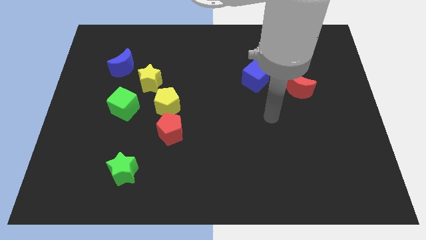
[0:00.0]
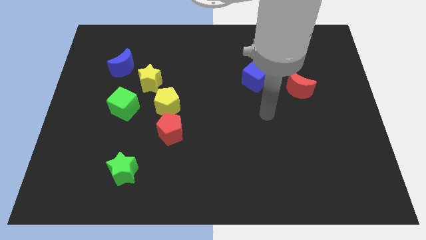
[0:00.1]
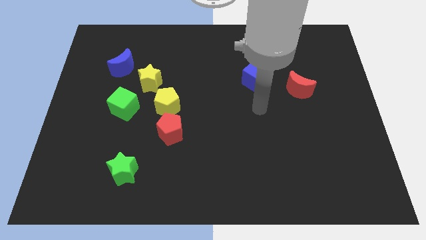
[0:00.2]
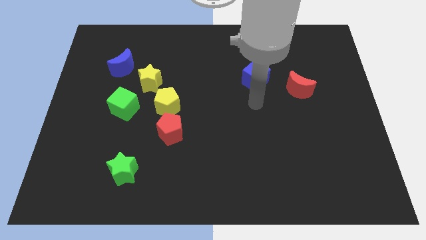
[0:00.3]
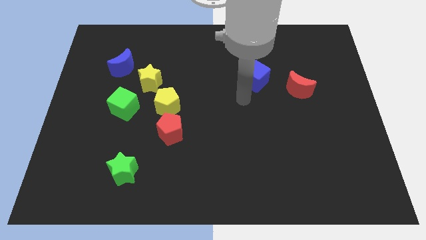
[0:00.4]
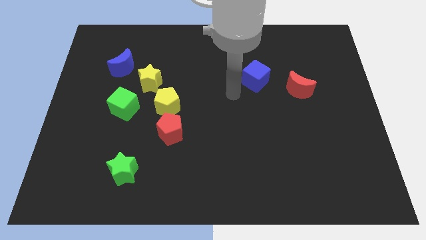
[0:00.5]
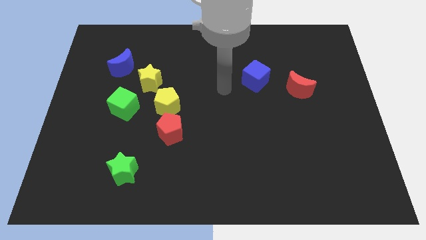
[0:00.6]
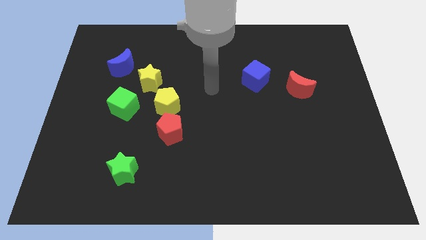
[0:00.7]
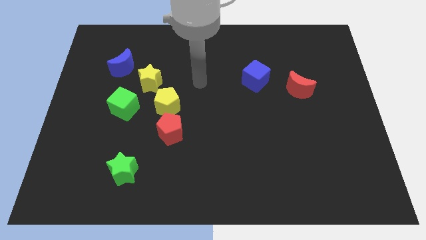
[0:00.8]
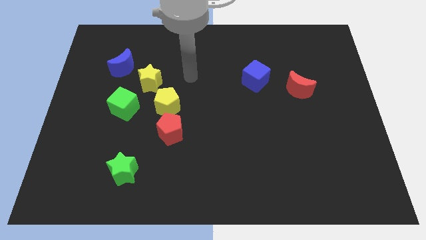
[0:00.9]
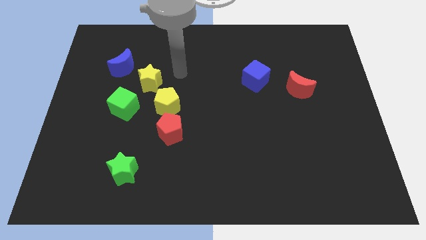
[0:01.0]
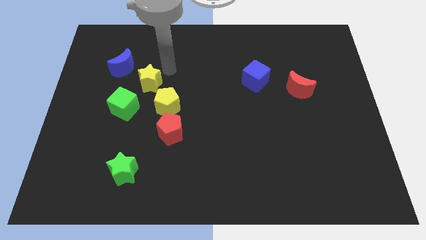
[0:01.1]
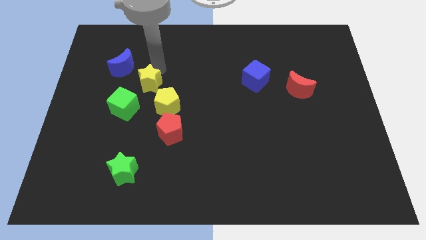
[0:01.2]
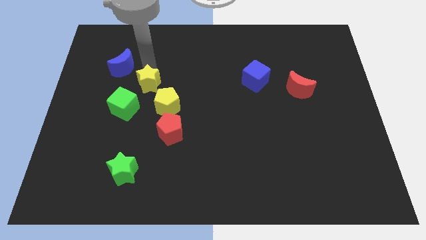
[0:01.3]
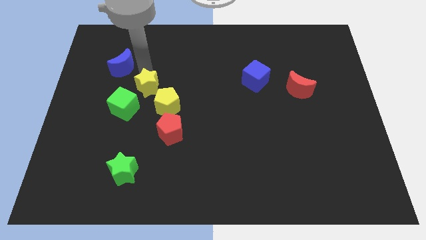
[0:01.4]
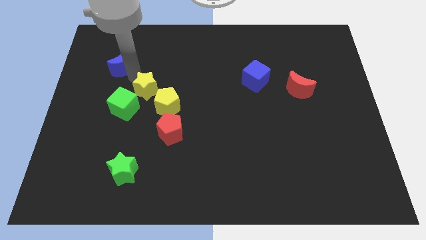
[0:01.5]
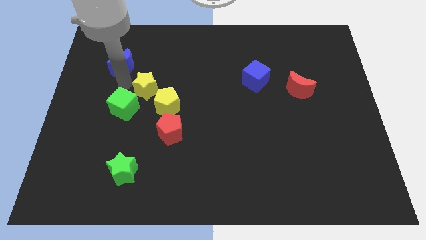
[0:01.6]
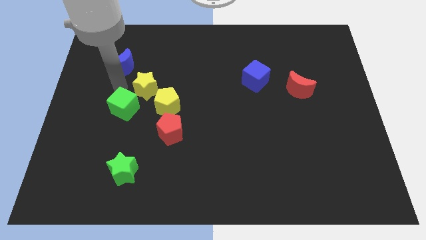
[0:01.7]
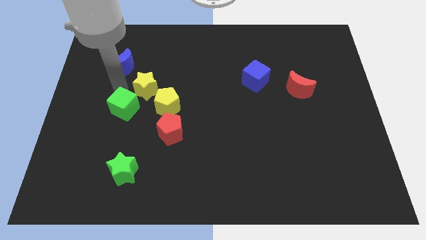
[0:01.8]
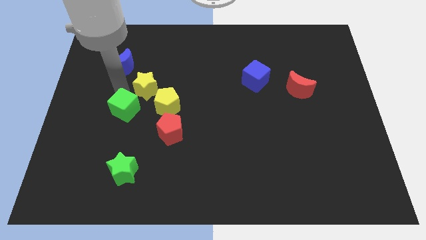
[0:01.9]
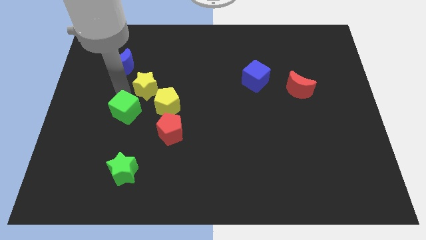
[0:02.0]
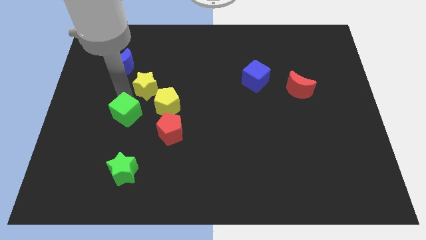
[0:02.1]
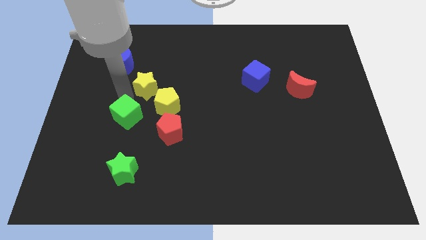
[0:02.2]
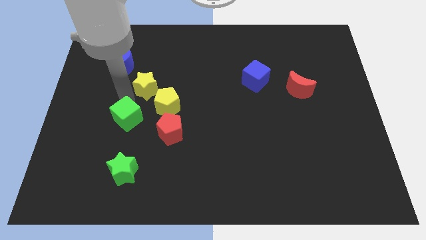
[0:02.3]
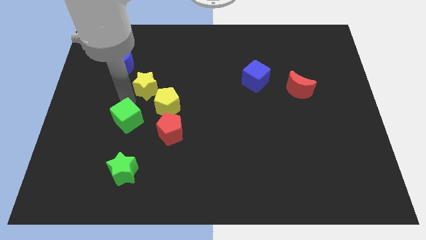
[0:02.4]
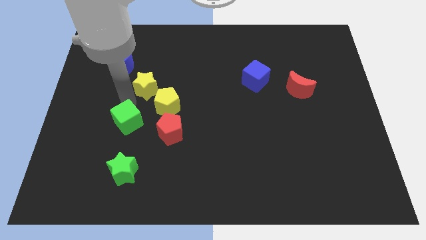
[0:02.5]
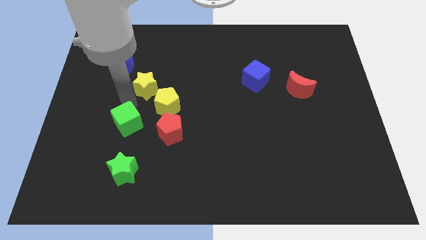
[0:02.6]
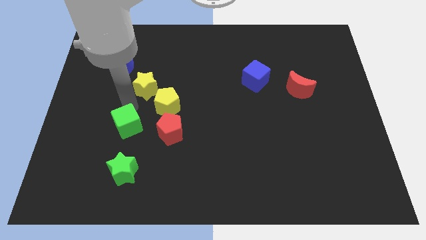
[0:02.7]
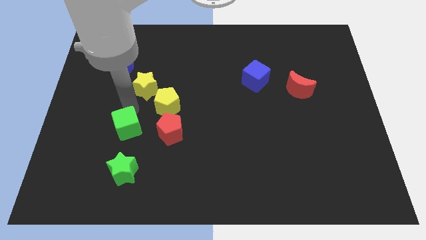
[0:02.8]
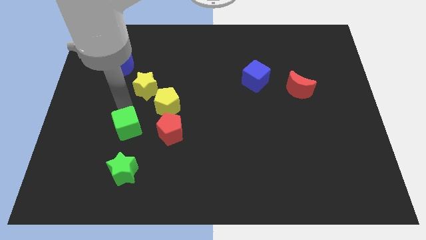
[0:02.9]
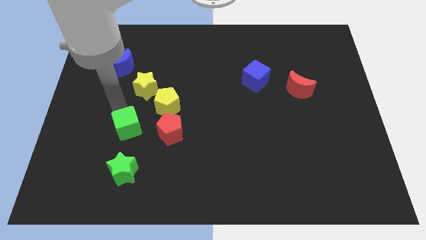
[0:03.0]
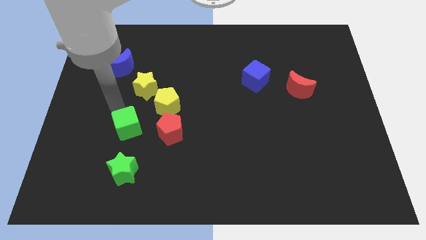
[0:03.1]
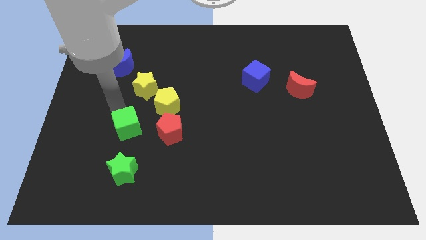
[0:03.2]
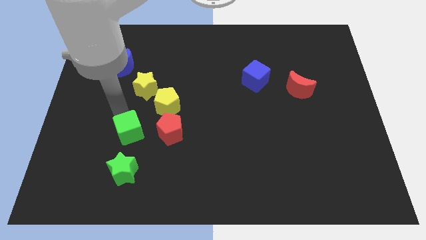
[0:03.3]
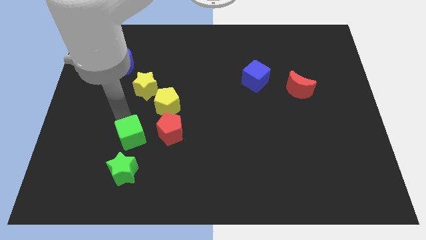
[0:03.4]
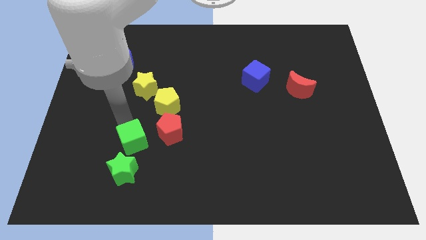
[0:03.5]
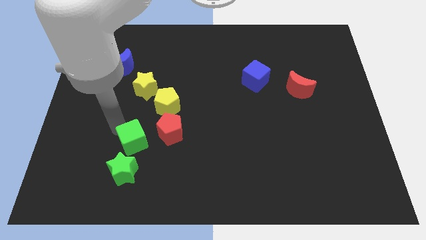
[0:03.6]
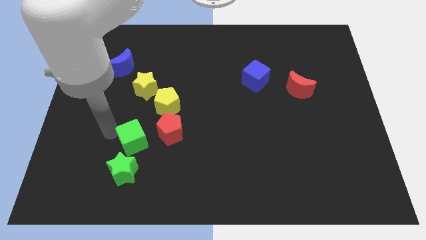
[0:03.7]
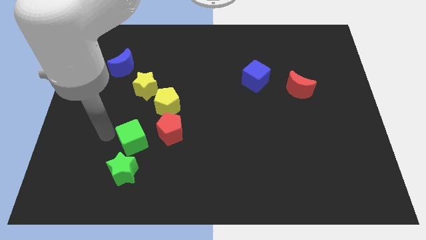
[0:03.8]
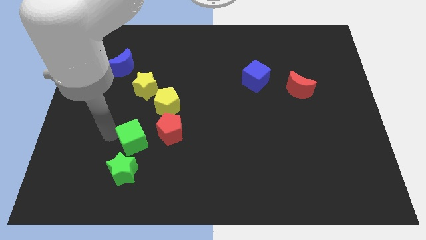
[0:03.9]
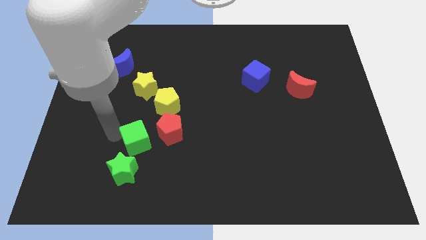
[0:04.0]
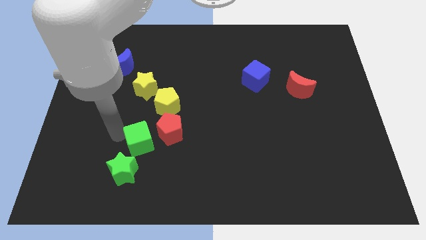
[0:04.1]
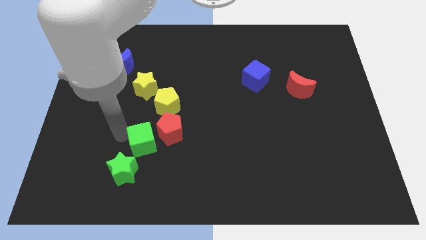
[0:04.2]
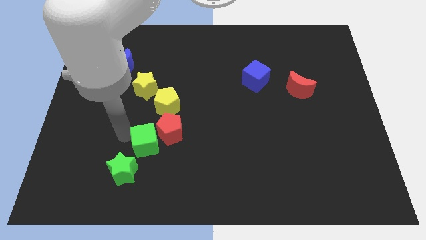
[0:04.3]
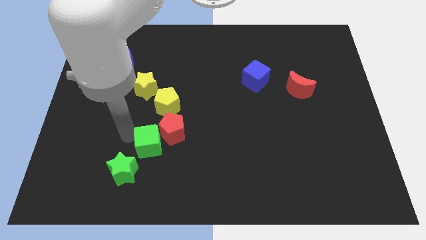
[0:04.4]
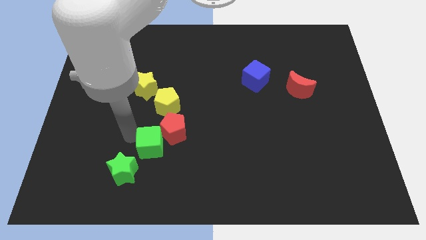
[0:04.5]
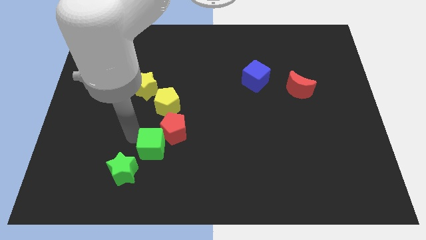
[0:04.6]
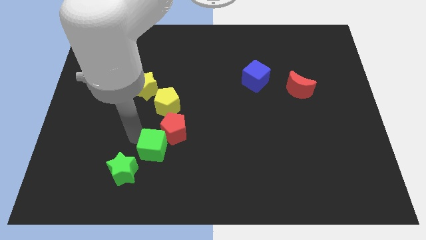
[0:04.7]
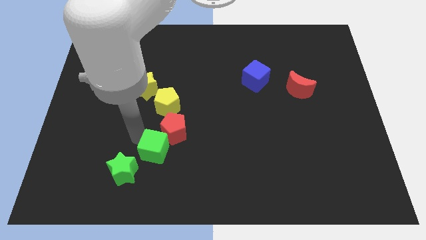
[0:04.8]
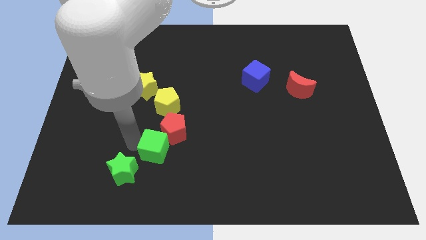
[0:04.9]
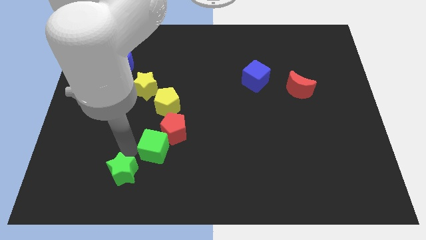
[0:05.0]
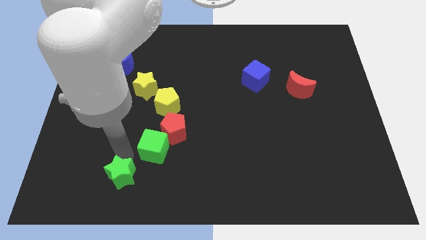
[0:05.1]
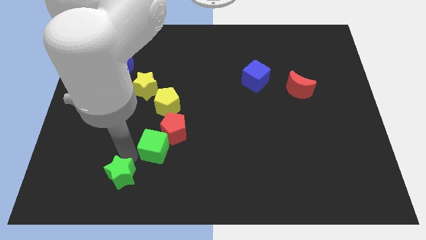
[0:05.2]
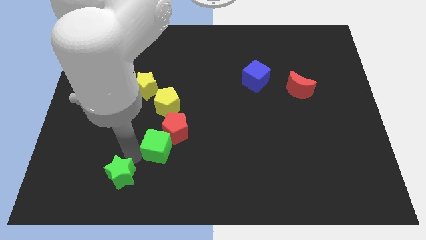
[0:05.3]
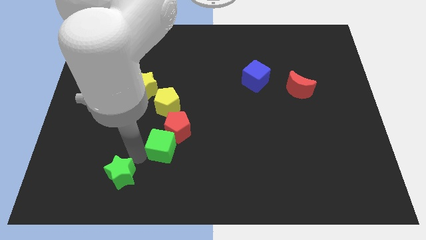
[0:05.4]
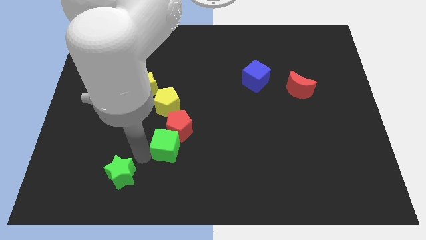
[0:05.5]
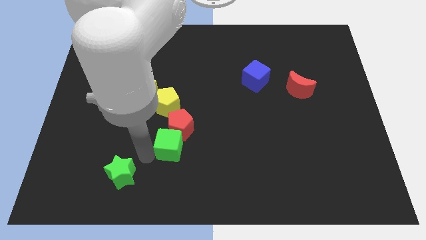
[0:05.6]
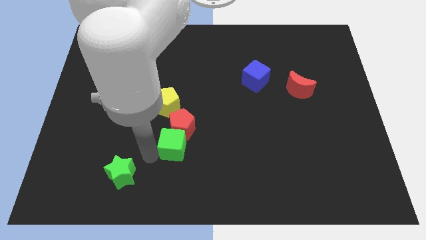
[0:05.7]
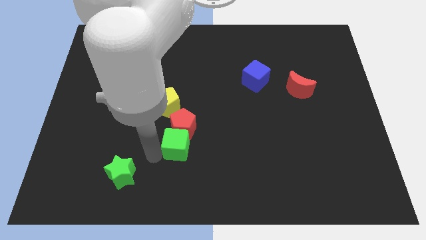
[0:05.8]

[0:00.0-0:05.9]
slightly move the green cube to the right

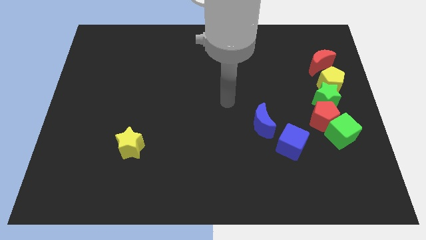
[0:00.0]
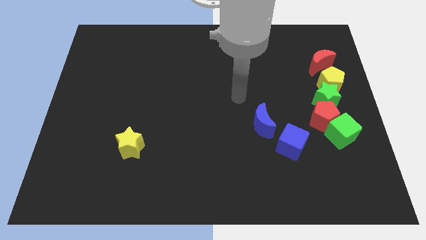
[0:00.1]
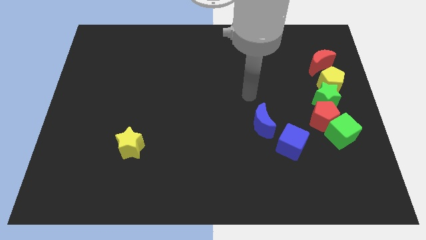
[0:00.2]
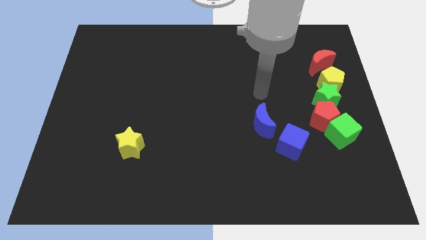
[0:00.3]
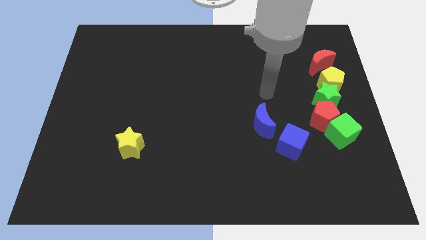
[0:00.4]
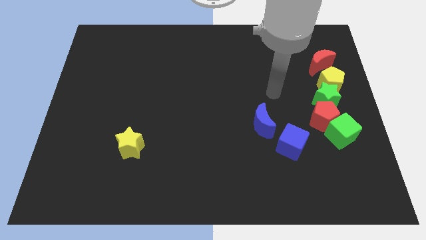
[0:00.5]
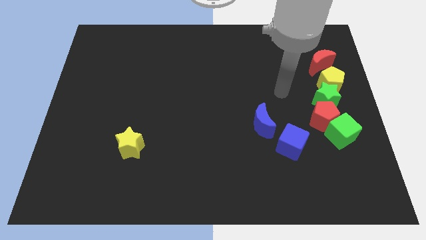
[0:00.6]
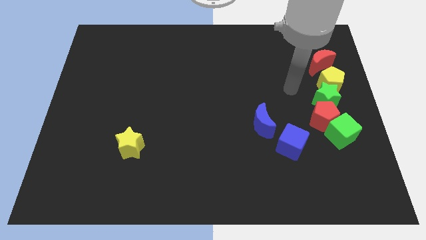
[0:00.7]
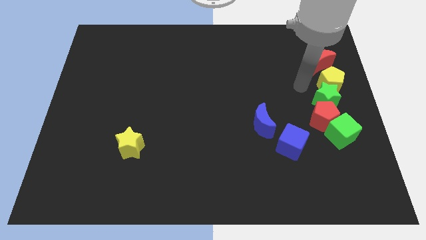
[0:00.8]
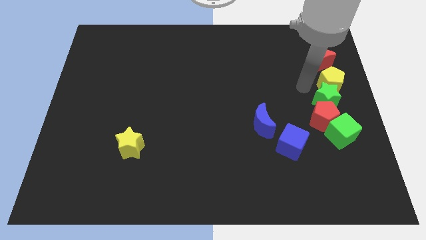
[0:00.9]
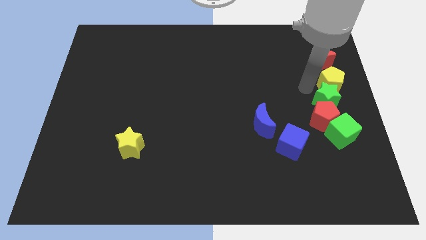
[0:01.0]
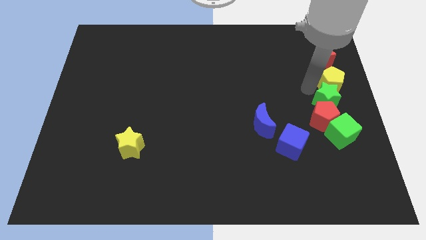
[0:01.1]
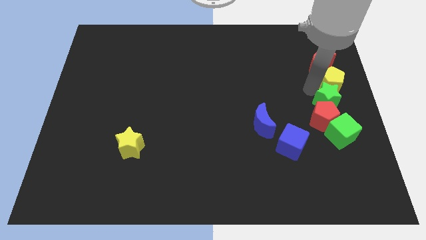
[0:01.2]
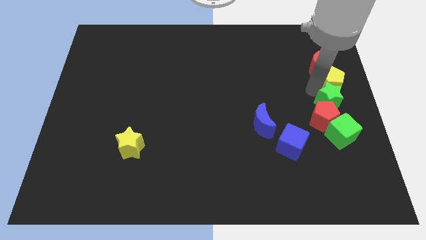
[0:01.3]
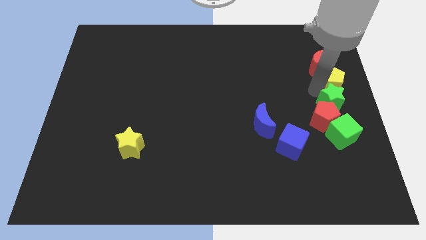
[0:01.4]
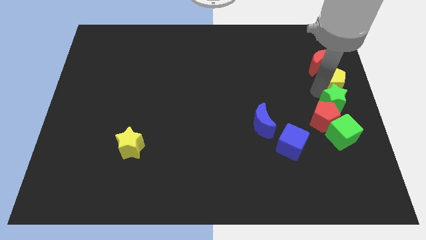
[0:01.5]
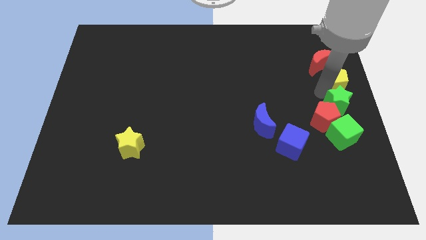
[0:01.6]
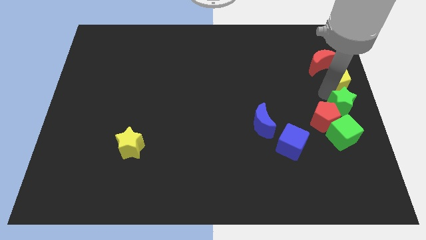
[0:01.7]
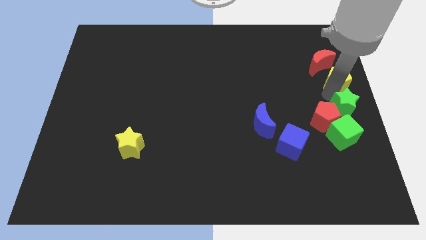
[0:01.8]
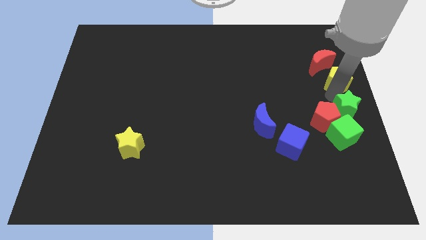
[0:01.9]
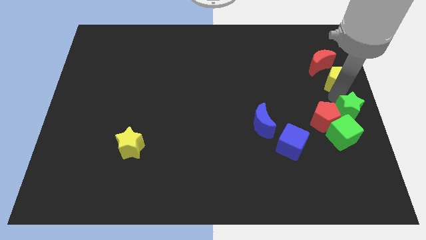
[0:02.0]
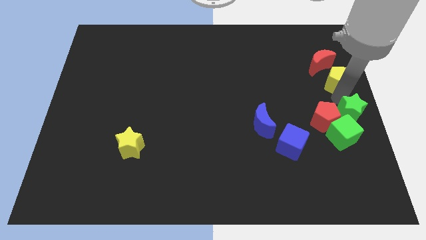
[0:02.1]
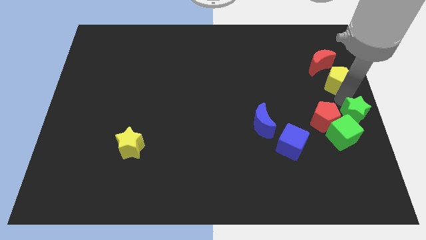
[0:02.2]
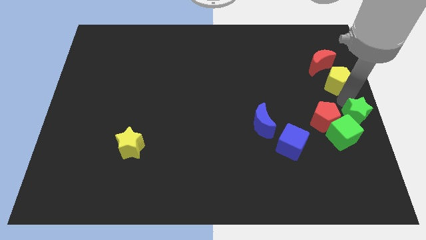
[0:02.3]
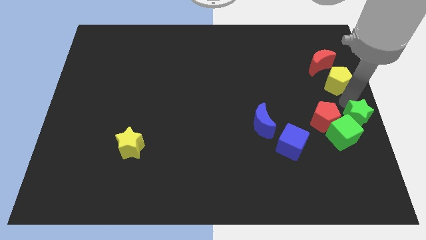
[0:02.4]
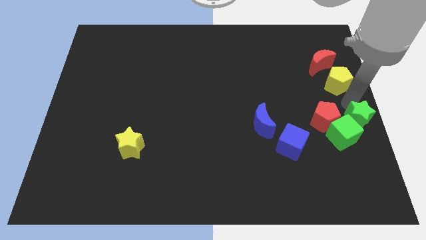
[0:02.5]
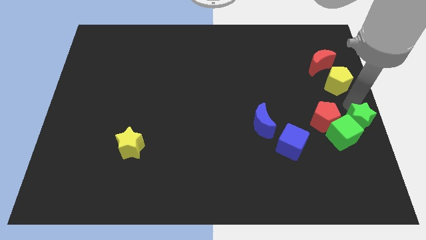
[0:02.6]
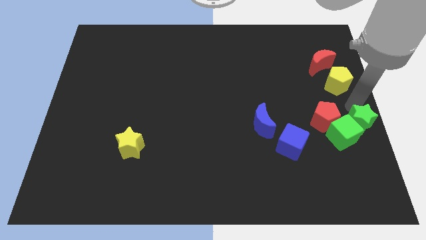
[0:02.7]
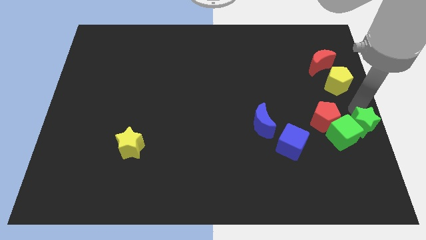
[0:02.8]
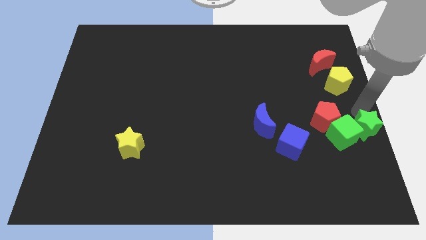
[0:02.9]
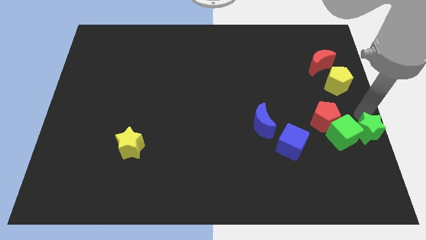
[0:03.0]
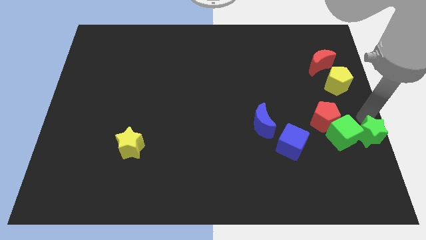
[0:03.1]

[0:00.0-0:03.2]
slightly push the green star down
